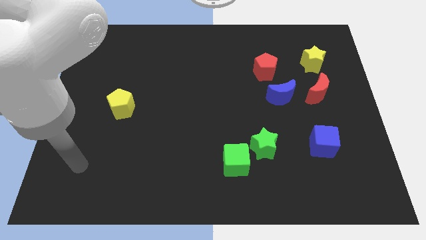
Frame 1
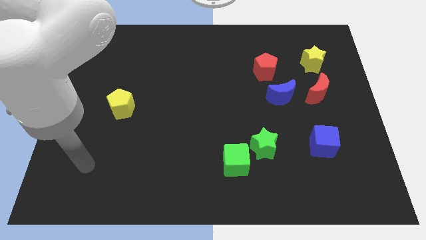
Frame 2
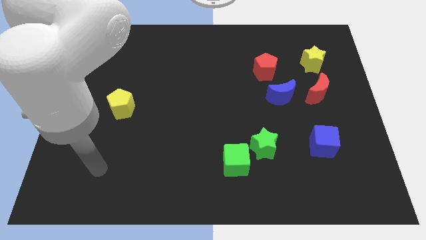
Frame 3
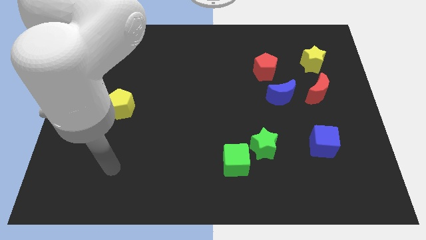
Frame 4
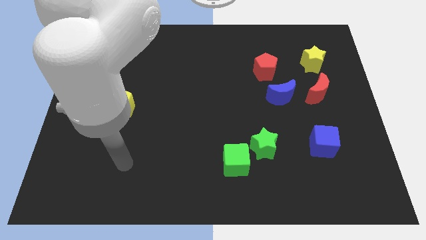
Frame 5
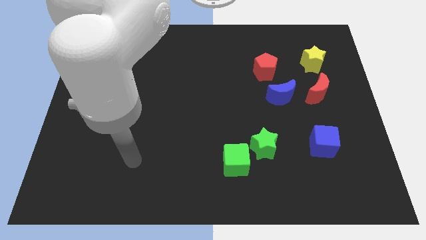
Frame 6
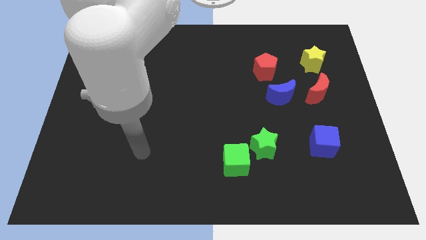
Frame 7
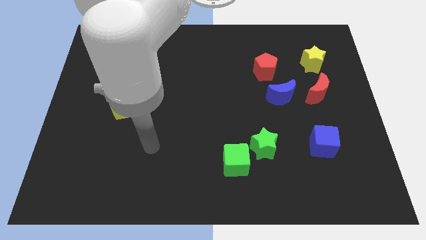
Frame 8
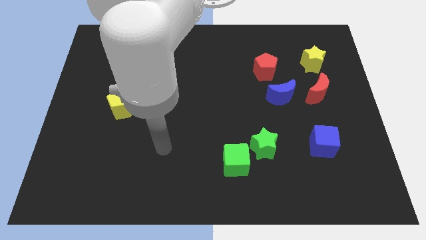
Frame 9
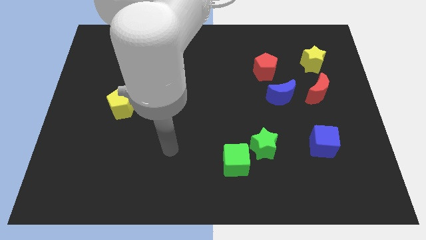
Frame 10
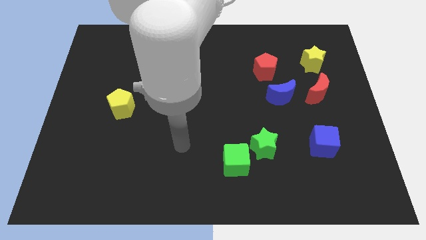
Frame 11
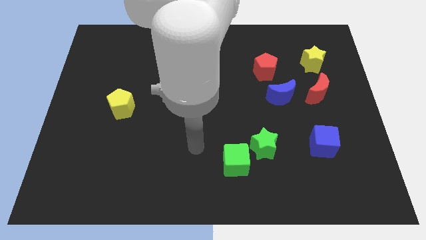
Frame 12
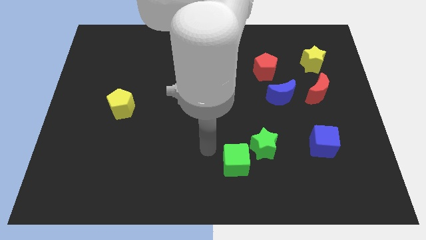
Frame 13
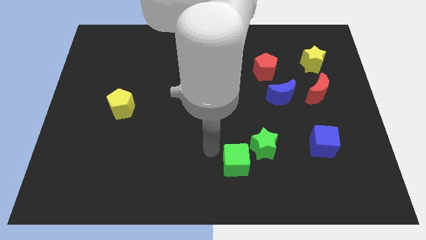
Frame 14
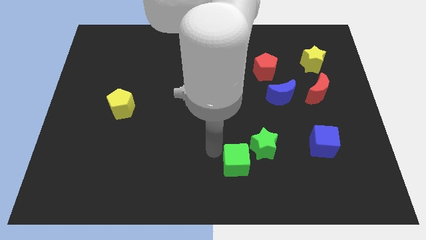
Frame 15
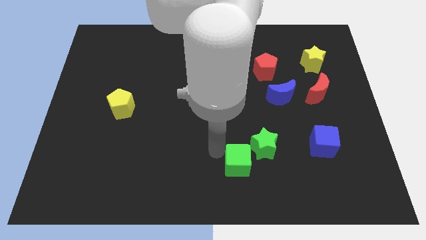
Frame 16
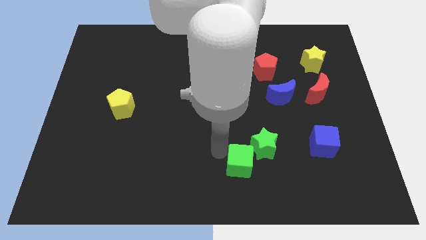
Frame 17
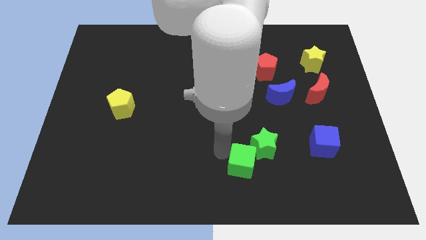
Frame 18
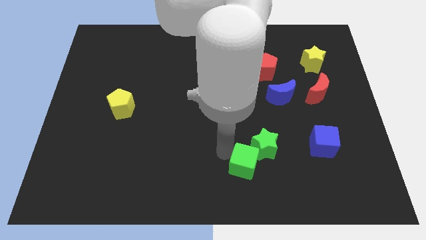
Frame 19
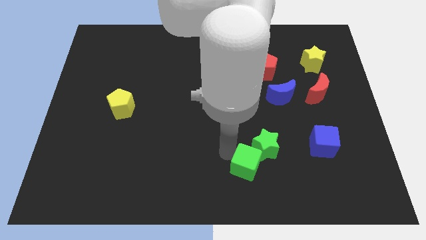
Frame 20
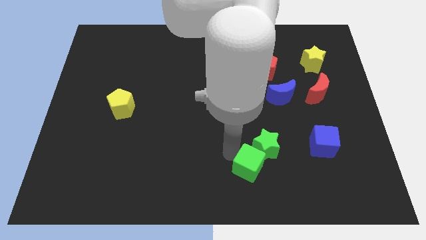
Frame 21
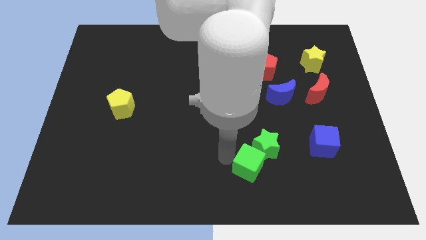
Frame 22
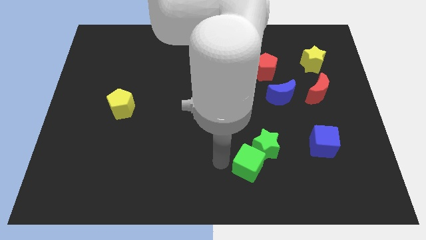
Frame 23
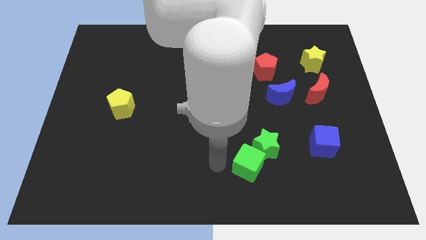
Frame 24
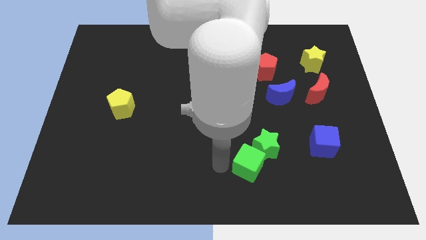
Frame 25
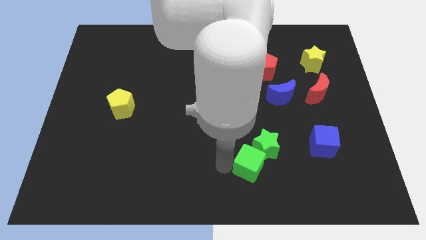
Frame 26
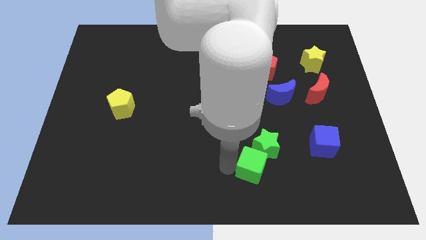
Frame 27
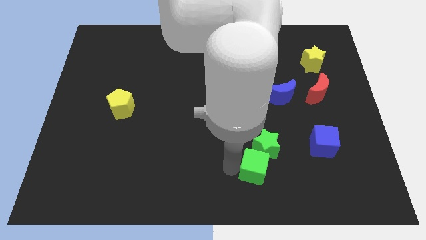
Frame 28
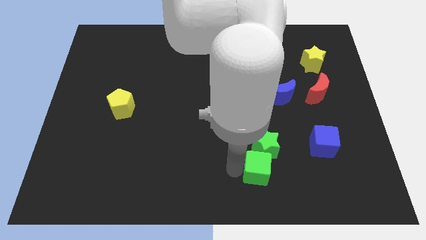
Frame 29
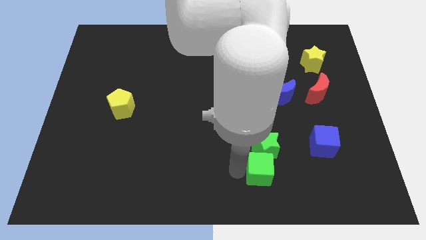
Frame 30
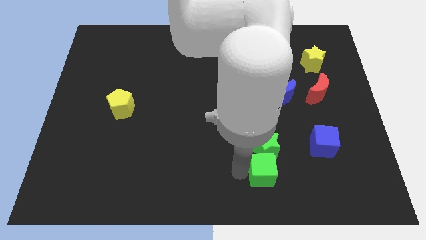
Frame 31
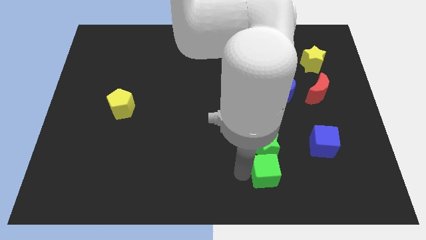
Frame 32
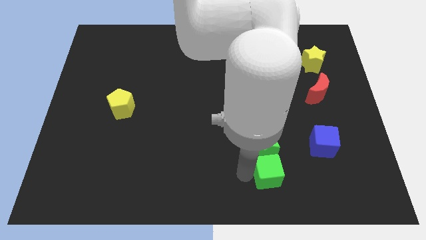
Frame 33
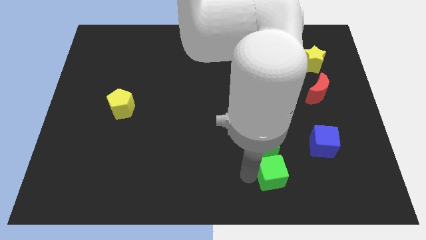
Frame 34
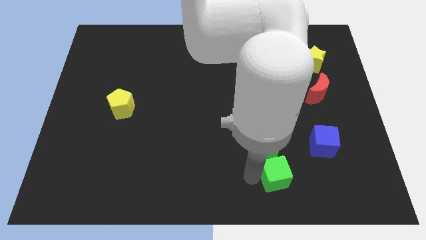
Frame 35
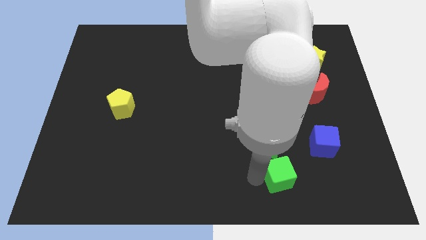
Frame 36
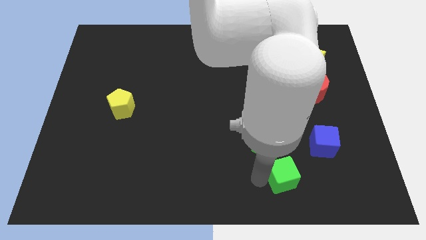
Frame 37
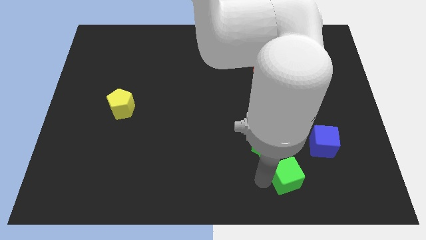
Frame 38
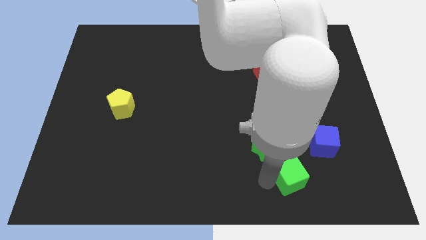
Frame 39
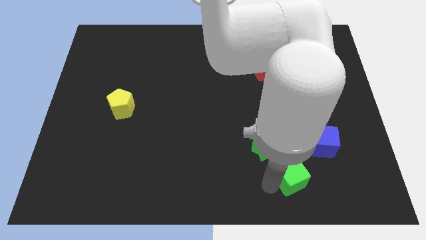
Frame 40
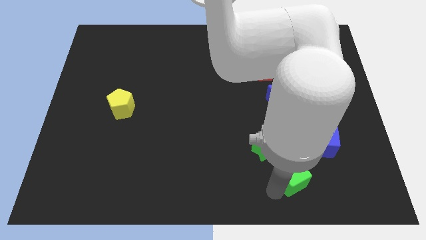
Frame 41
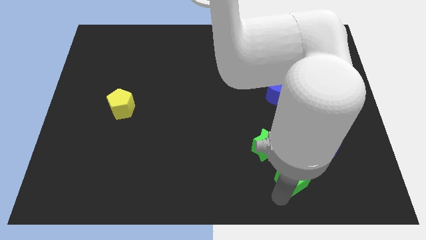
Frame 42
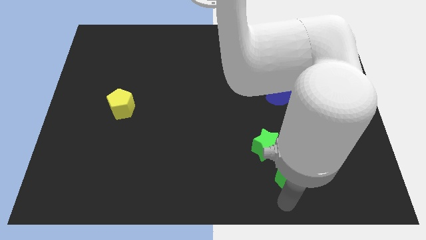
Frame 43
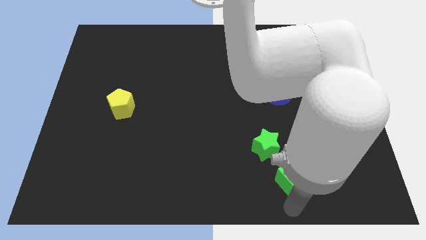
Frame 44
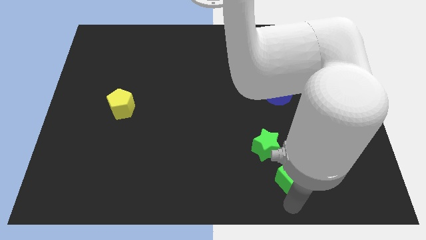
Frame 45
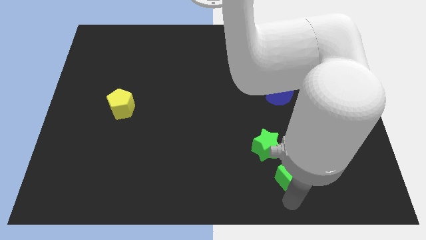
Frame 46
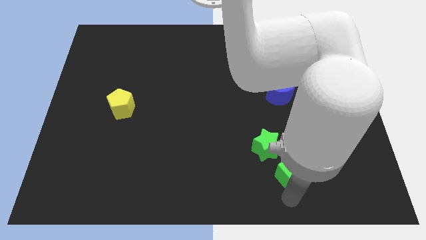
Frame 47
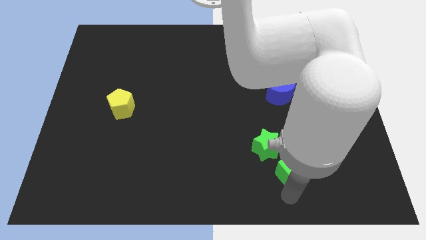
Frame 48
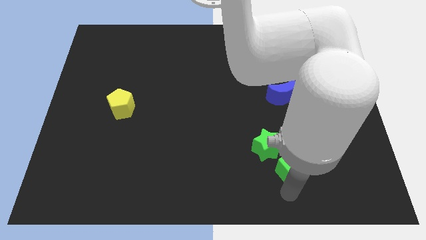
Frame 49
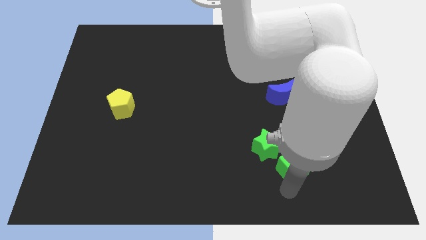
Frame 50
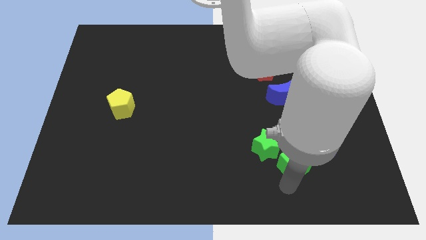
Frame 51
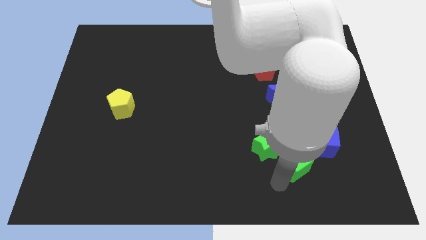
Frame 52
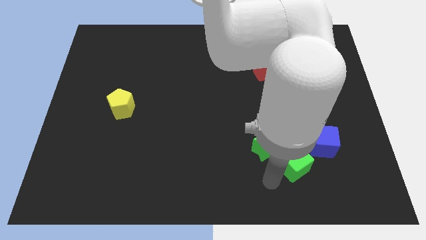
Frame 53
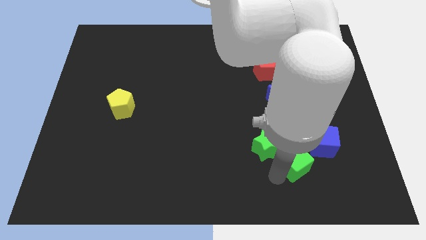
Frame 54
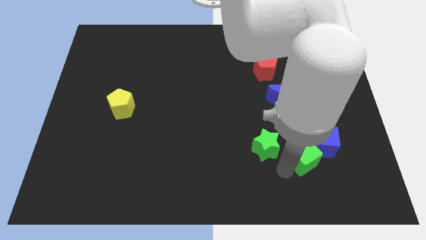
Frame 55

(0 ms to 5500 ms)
move the green cube next to the blue cube
